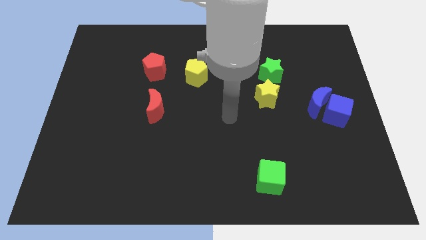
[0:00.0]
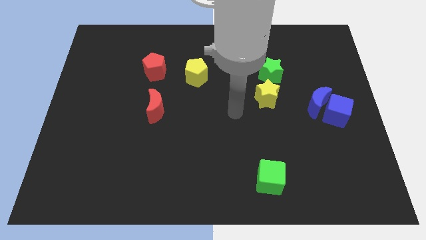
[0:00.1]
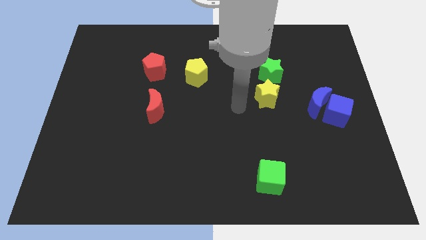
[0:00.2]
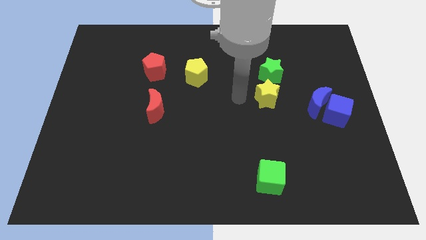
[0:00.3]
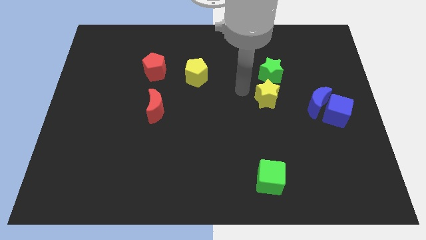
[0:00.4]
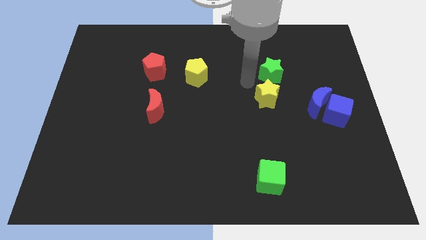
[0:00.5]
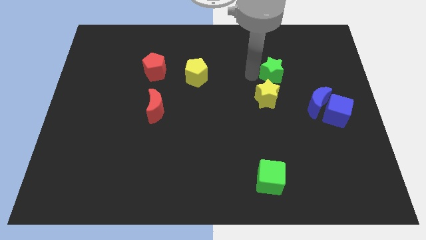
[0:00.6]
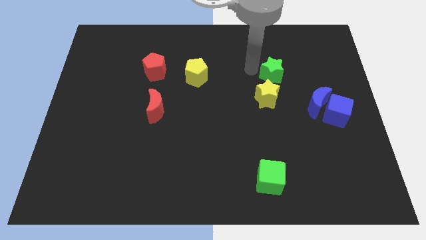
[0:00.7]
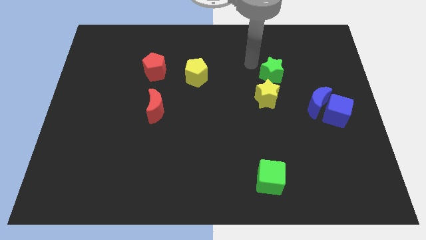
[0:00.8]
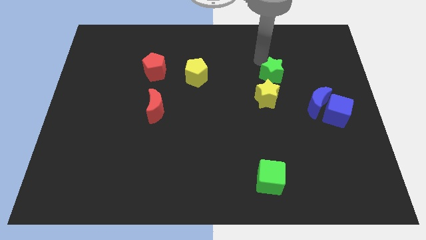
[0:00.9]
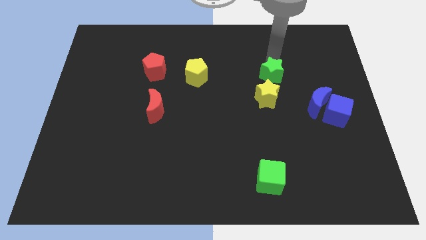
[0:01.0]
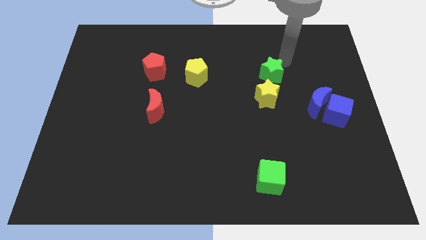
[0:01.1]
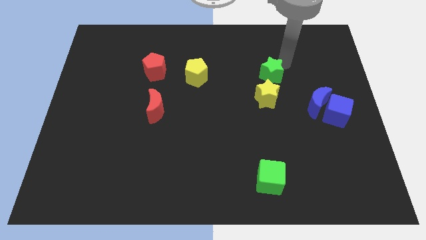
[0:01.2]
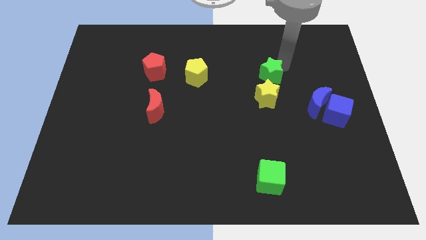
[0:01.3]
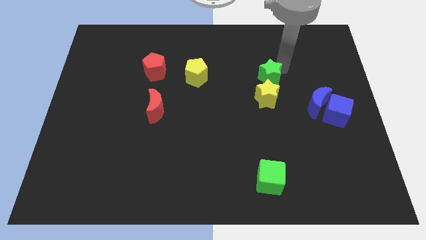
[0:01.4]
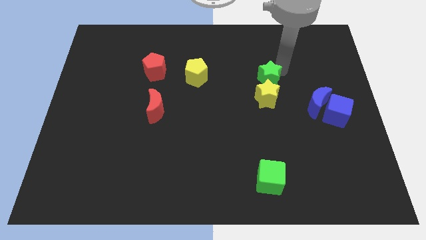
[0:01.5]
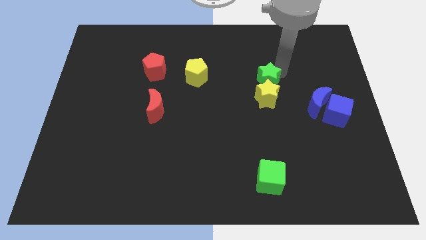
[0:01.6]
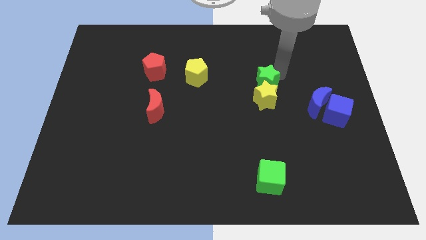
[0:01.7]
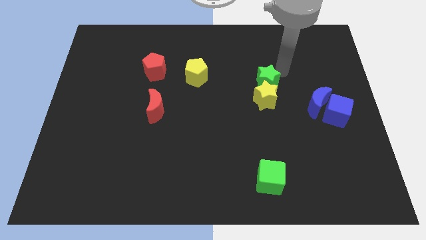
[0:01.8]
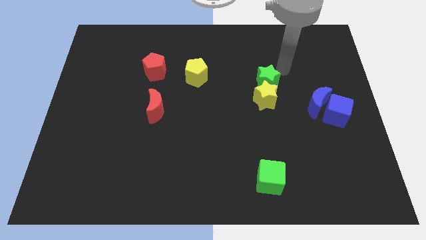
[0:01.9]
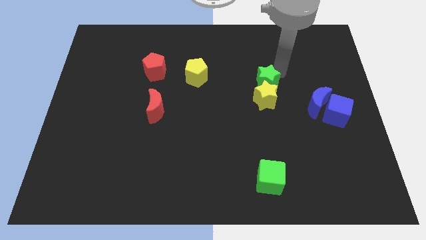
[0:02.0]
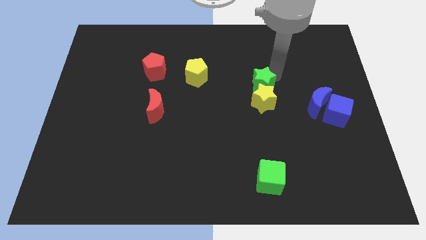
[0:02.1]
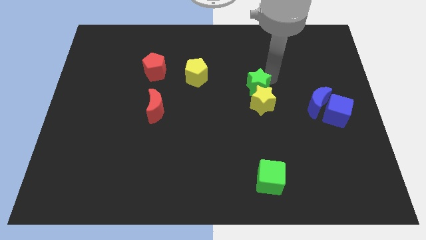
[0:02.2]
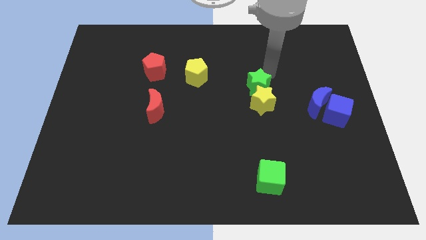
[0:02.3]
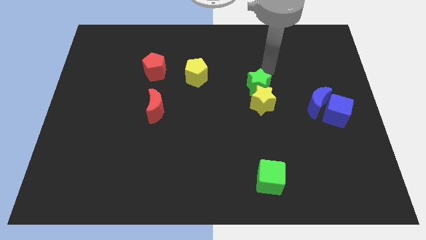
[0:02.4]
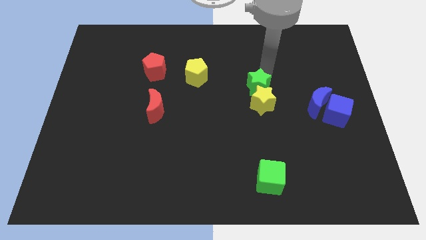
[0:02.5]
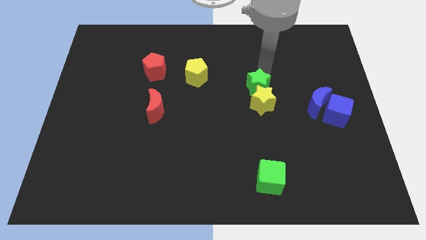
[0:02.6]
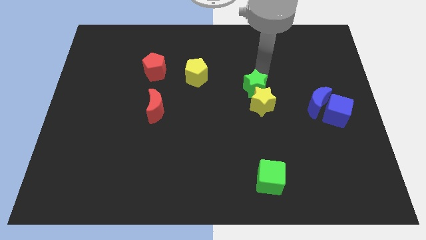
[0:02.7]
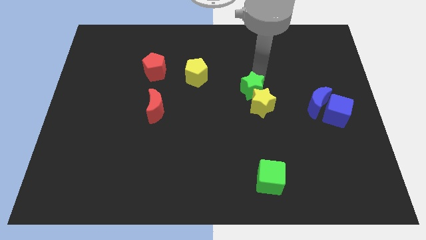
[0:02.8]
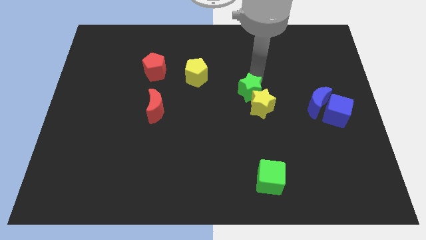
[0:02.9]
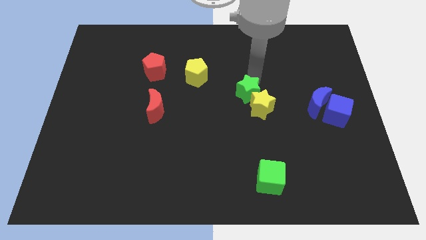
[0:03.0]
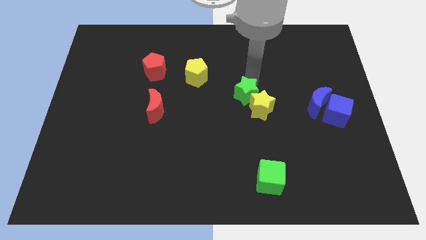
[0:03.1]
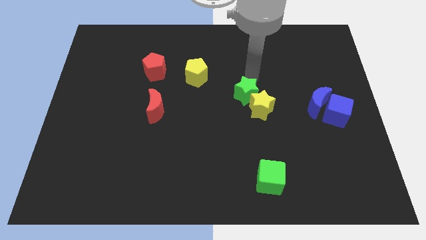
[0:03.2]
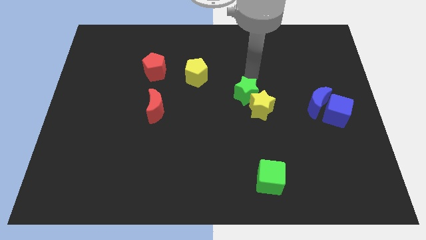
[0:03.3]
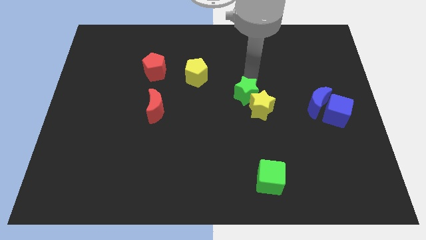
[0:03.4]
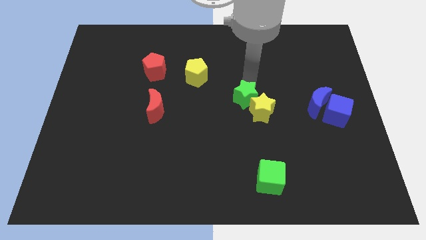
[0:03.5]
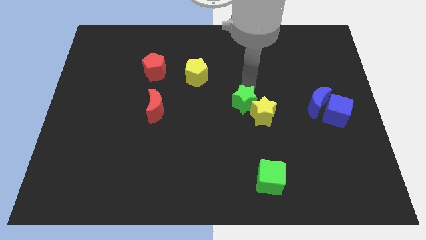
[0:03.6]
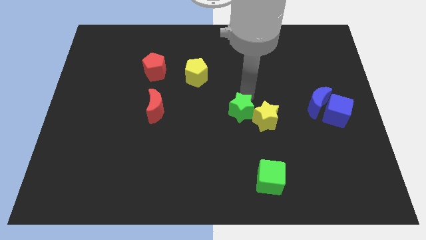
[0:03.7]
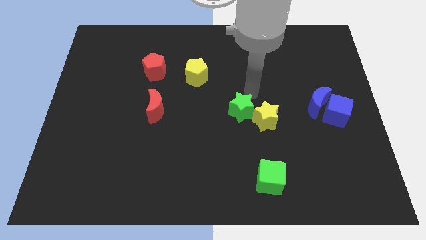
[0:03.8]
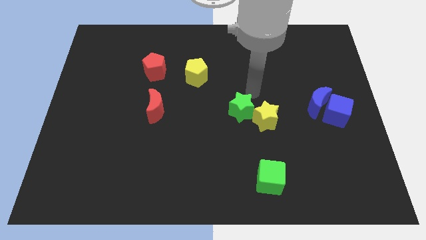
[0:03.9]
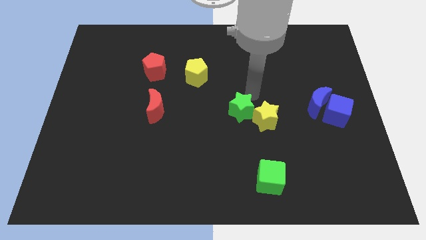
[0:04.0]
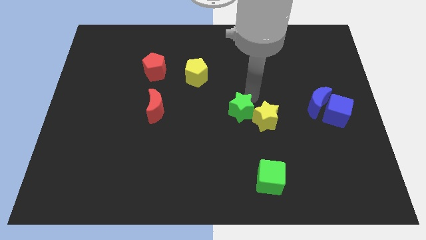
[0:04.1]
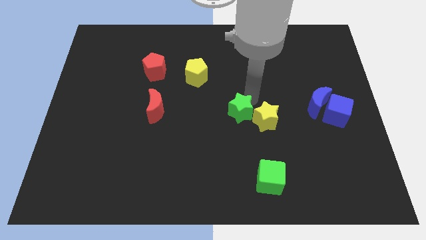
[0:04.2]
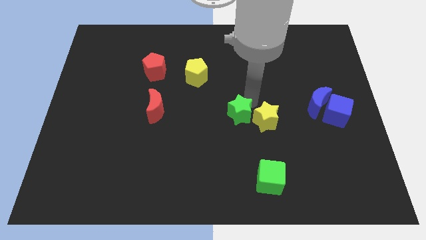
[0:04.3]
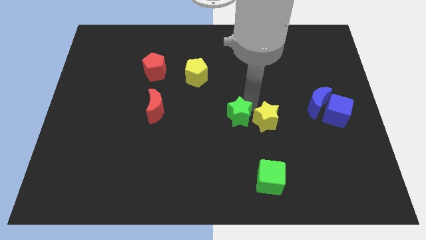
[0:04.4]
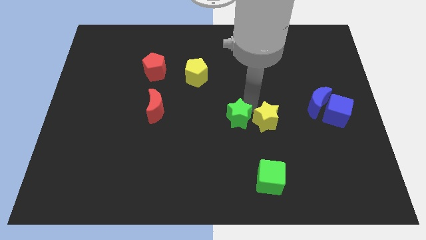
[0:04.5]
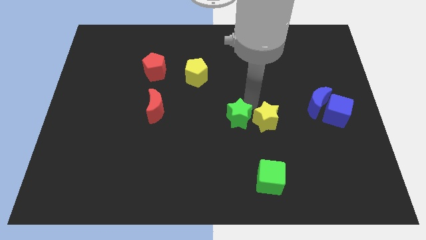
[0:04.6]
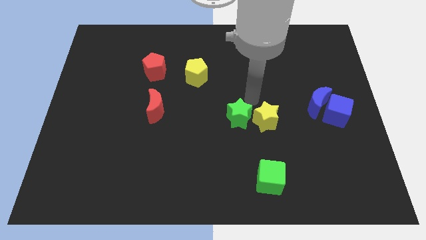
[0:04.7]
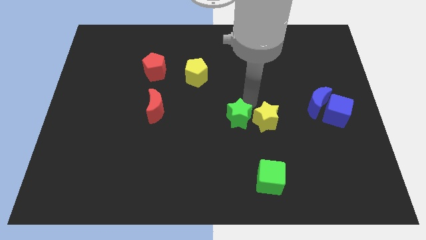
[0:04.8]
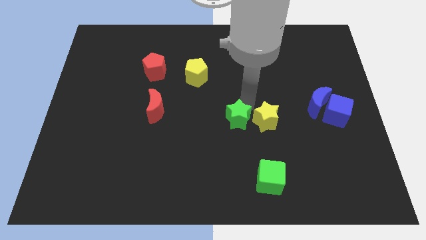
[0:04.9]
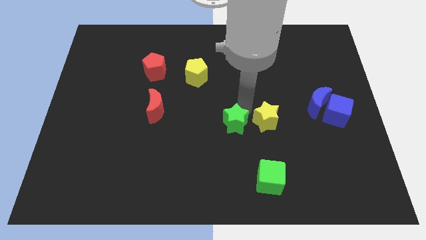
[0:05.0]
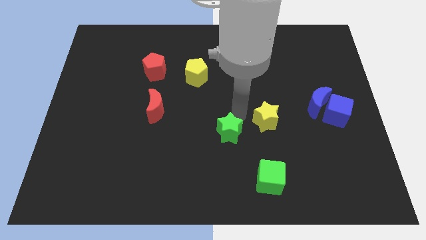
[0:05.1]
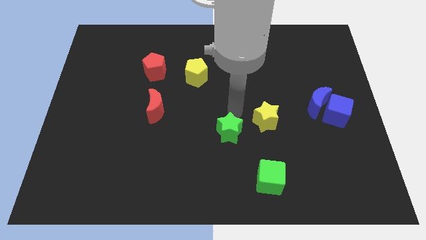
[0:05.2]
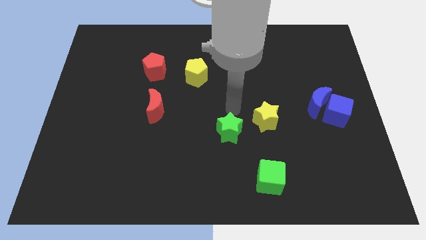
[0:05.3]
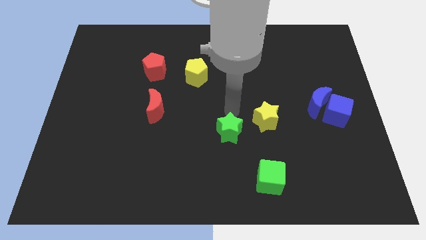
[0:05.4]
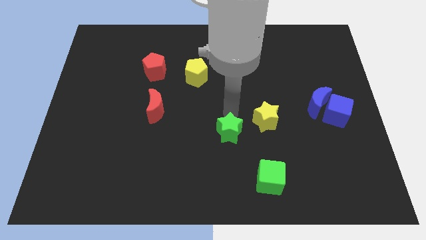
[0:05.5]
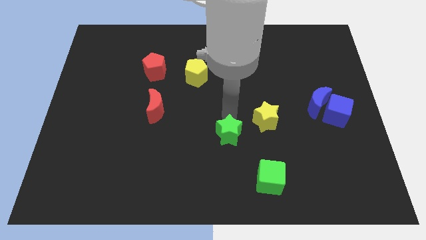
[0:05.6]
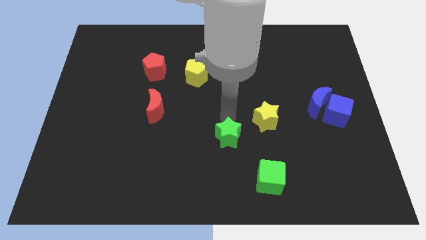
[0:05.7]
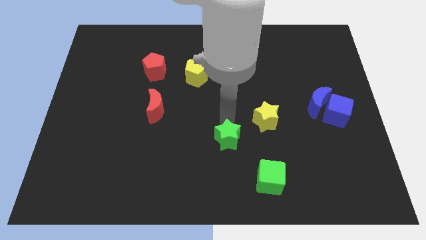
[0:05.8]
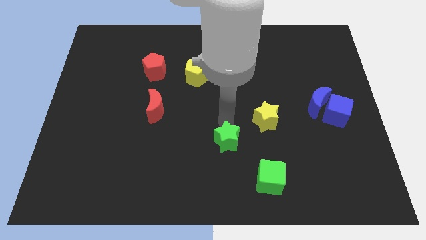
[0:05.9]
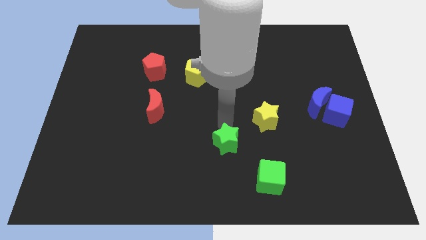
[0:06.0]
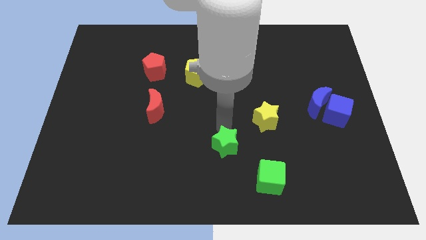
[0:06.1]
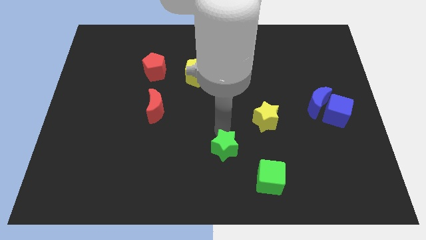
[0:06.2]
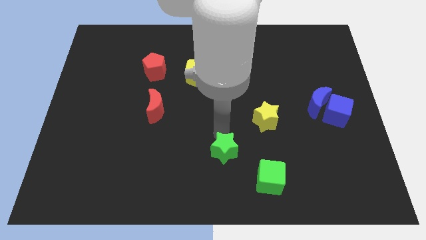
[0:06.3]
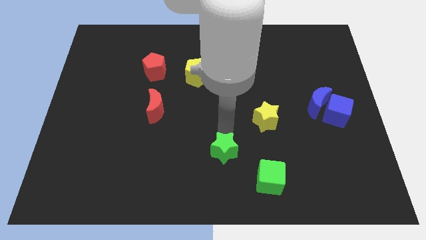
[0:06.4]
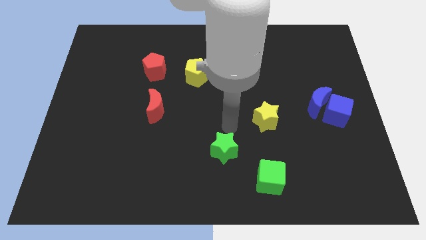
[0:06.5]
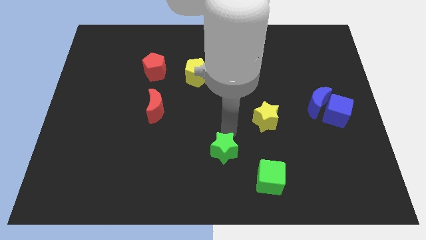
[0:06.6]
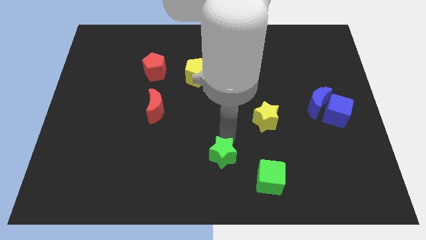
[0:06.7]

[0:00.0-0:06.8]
put the green star to the bottom side
